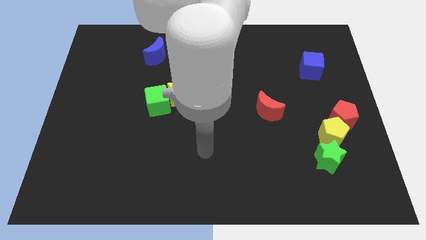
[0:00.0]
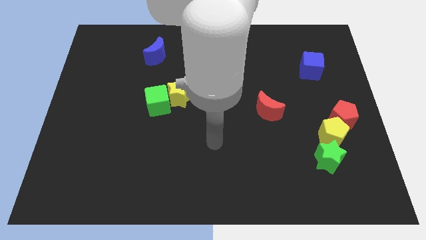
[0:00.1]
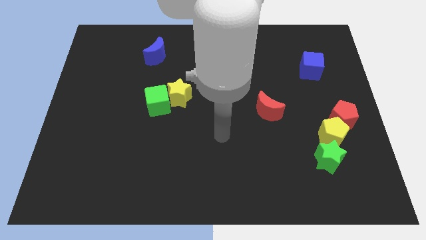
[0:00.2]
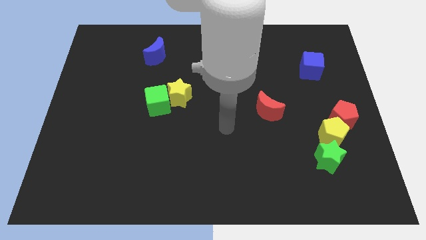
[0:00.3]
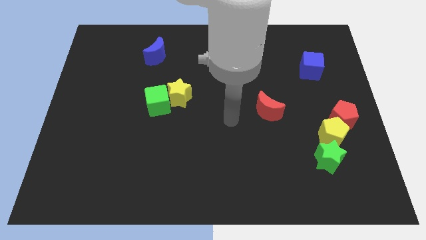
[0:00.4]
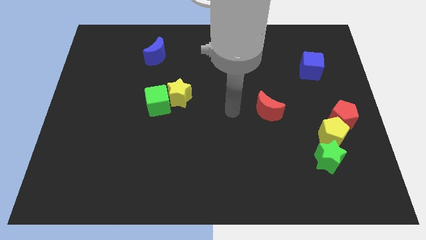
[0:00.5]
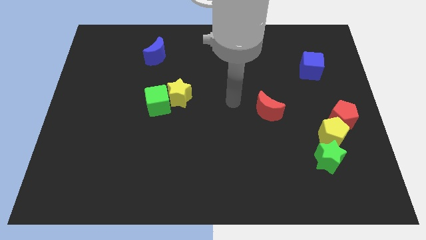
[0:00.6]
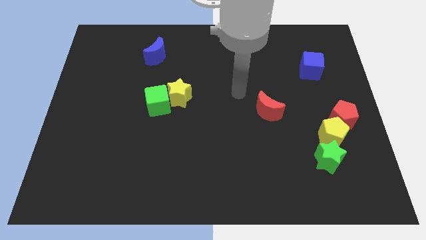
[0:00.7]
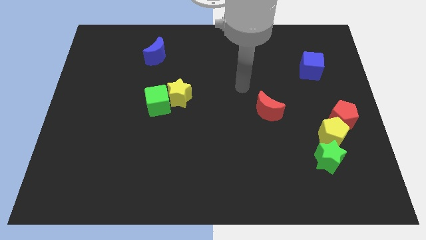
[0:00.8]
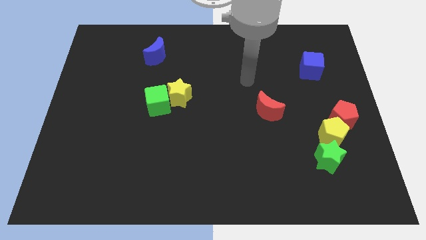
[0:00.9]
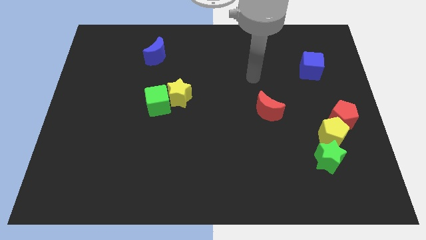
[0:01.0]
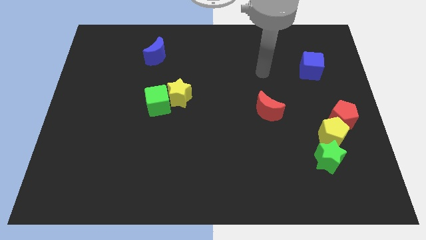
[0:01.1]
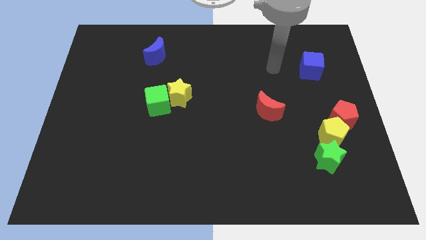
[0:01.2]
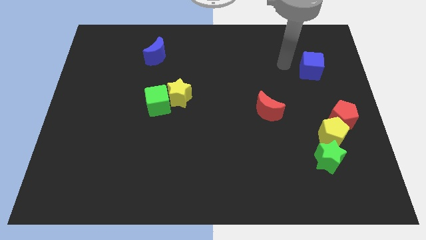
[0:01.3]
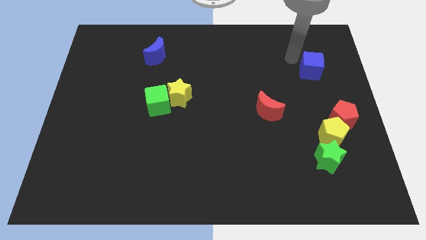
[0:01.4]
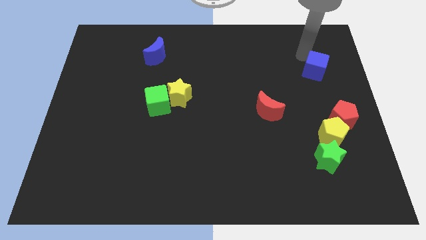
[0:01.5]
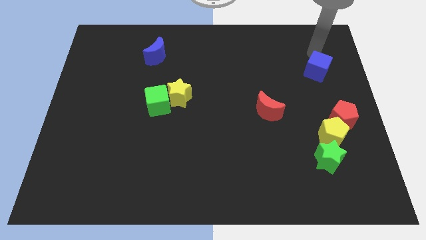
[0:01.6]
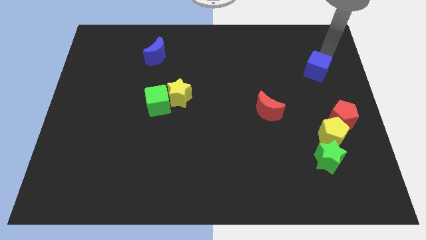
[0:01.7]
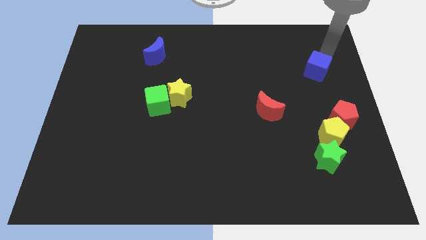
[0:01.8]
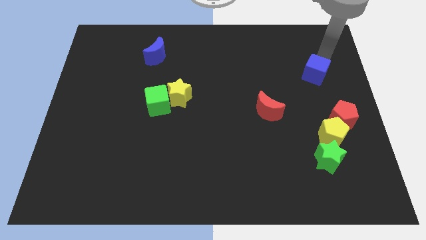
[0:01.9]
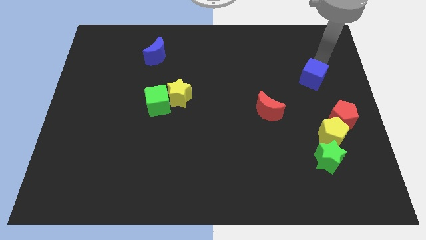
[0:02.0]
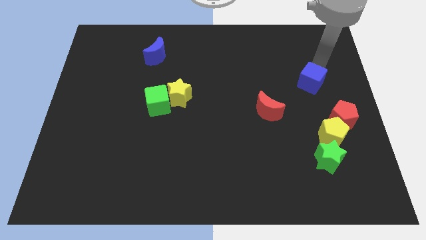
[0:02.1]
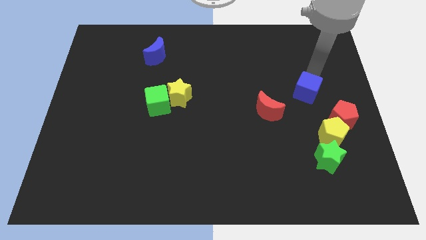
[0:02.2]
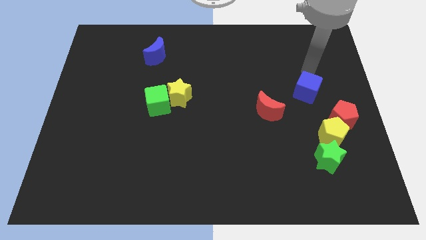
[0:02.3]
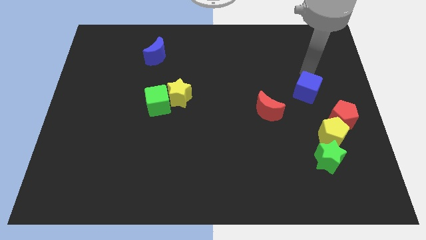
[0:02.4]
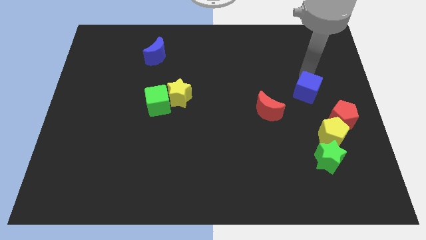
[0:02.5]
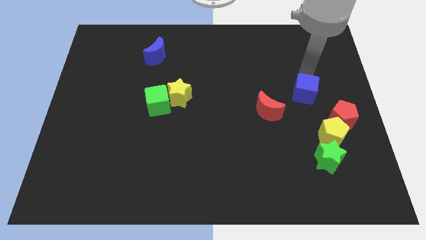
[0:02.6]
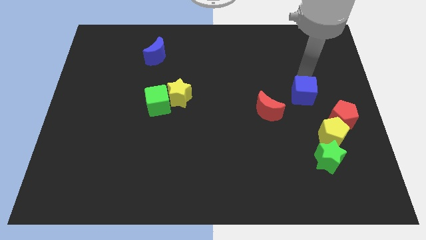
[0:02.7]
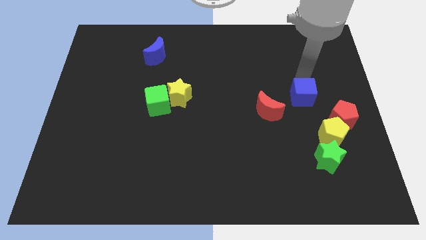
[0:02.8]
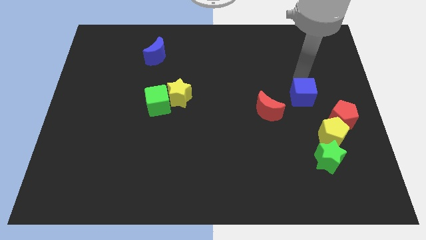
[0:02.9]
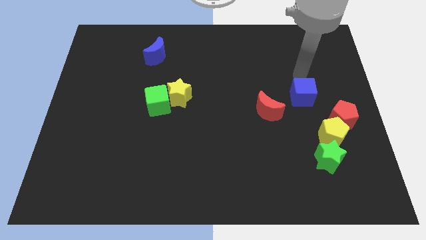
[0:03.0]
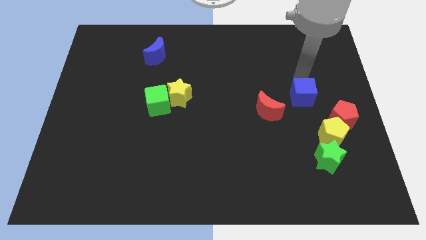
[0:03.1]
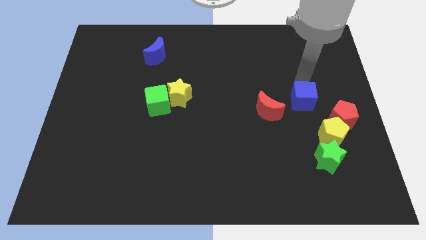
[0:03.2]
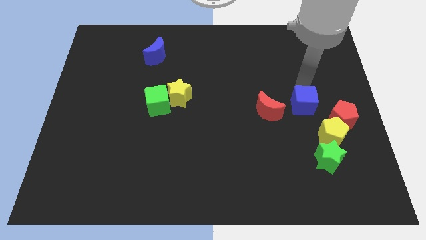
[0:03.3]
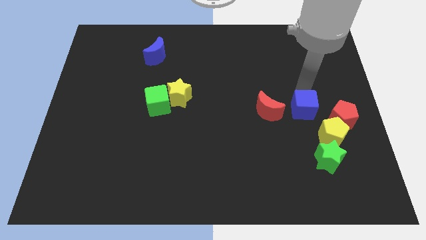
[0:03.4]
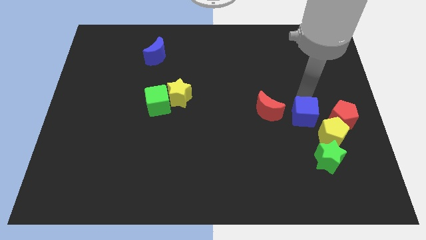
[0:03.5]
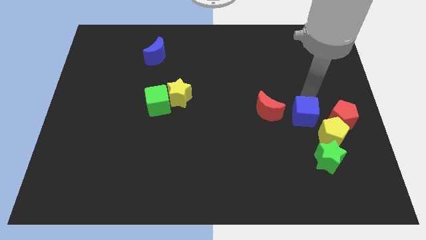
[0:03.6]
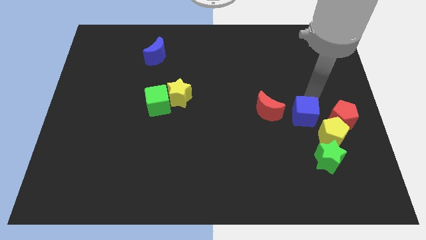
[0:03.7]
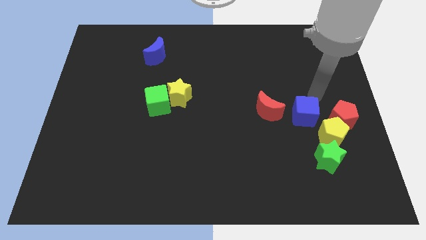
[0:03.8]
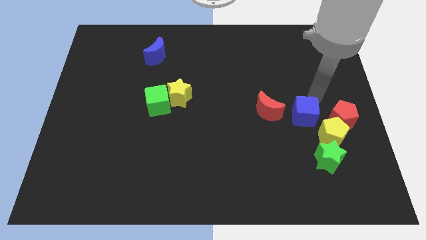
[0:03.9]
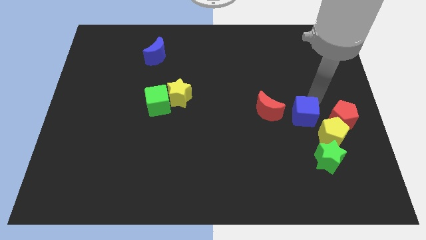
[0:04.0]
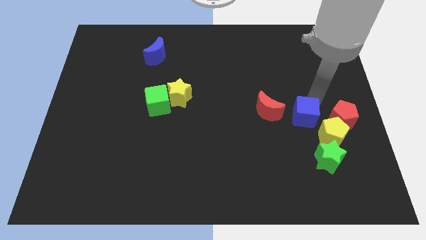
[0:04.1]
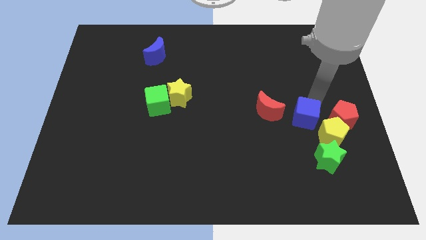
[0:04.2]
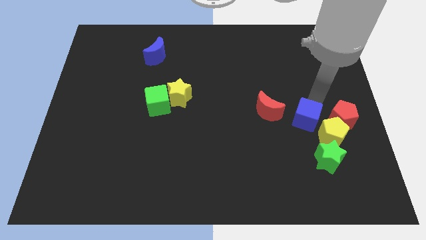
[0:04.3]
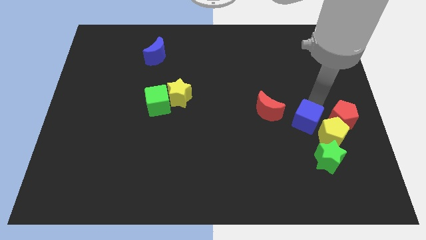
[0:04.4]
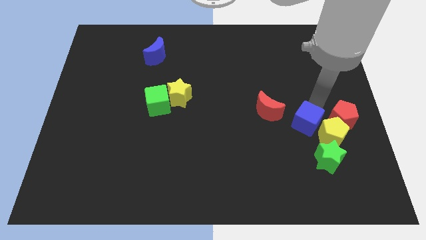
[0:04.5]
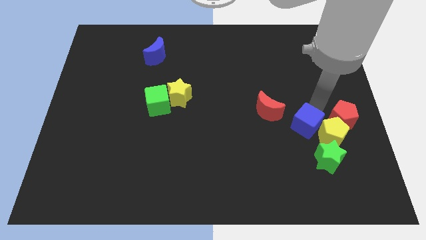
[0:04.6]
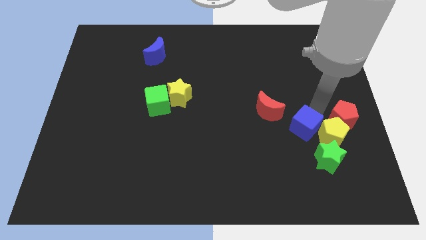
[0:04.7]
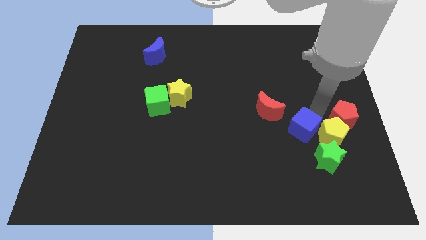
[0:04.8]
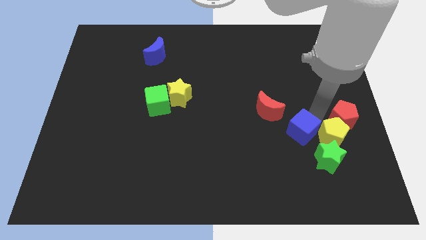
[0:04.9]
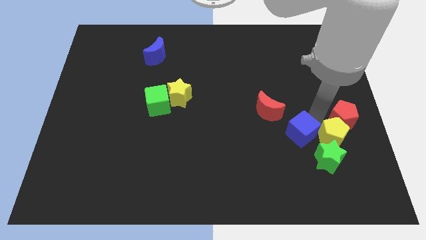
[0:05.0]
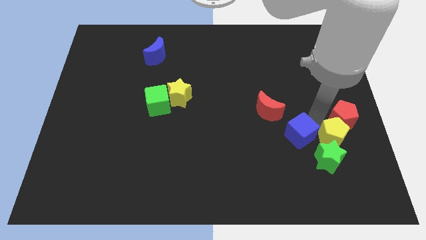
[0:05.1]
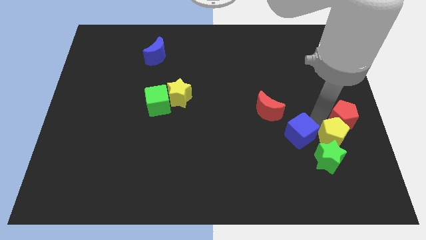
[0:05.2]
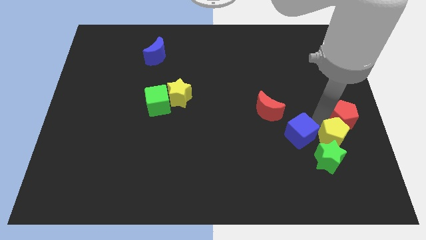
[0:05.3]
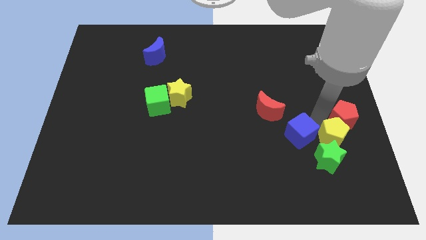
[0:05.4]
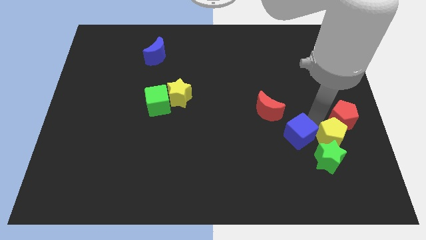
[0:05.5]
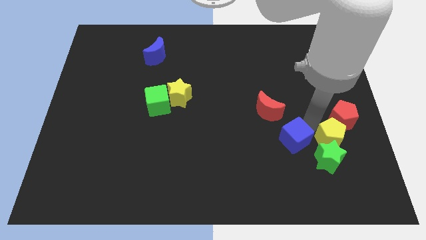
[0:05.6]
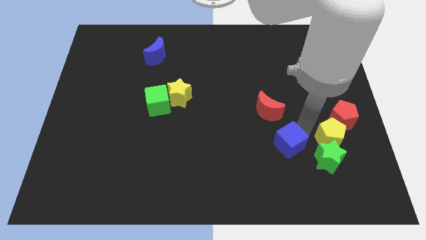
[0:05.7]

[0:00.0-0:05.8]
move the blue cube to the left side of the green star

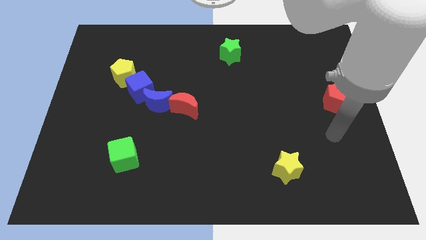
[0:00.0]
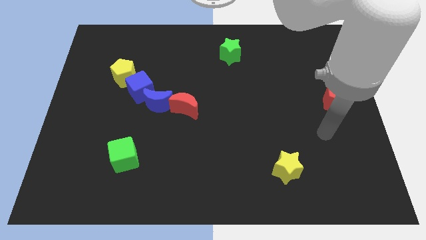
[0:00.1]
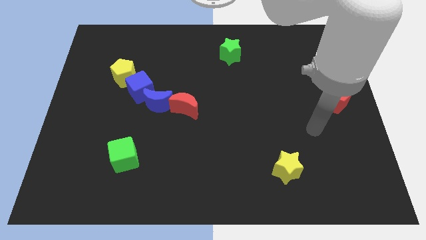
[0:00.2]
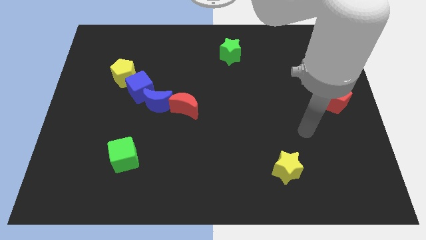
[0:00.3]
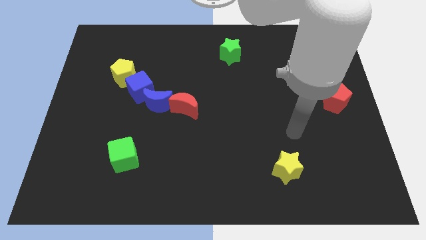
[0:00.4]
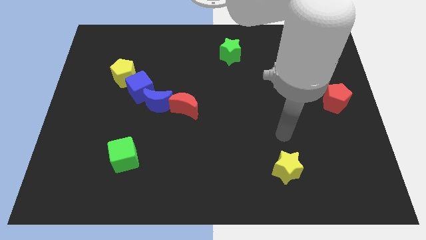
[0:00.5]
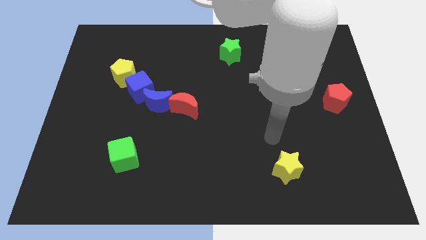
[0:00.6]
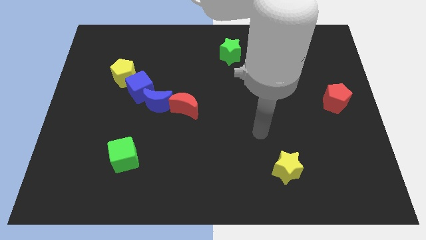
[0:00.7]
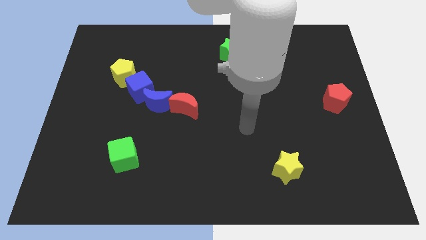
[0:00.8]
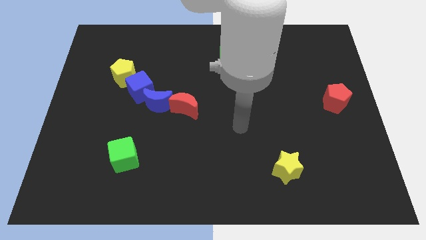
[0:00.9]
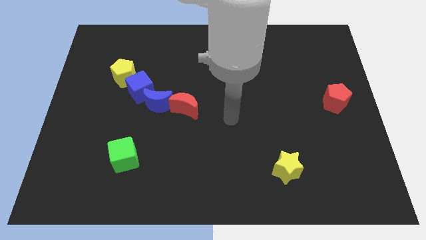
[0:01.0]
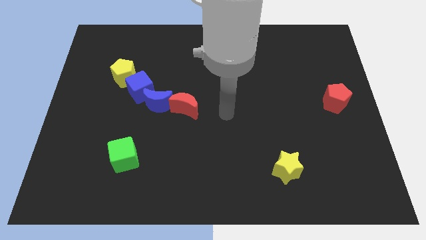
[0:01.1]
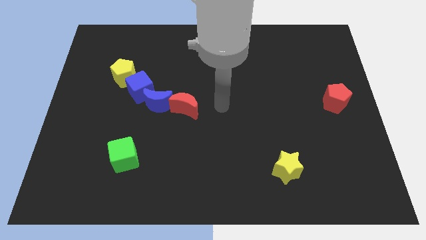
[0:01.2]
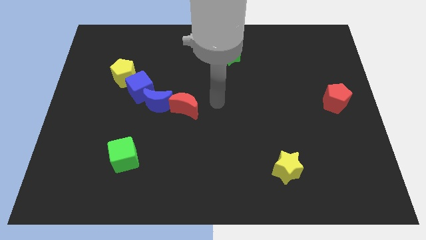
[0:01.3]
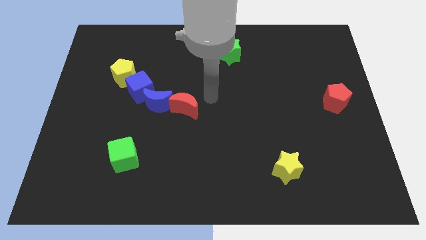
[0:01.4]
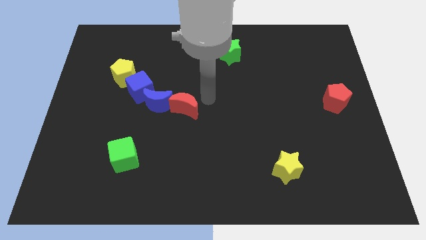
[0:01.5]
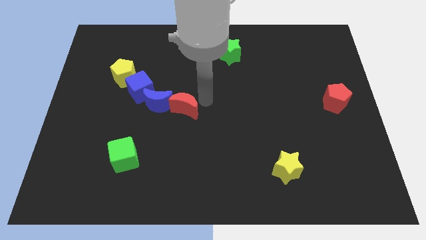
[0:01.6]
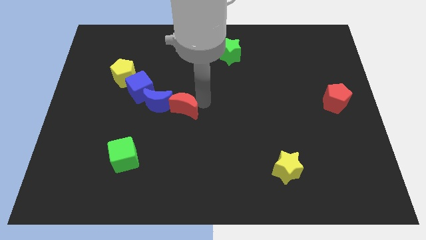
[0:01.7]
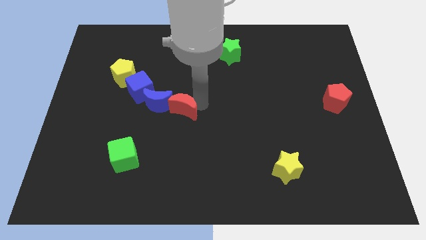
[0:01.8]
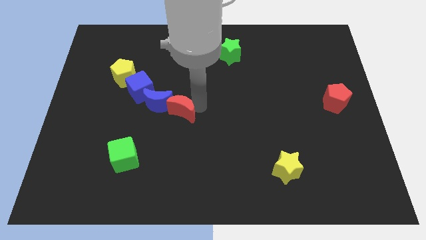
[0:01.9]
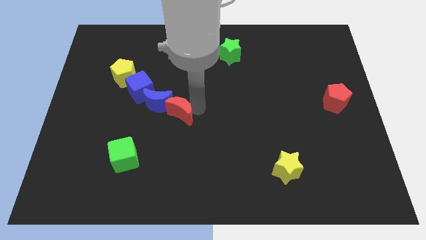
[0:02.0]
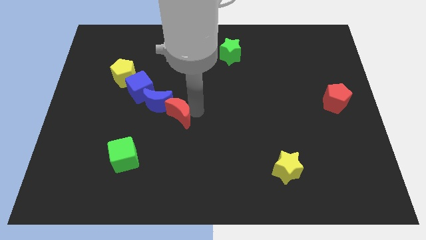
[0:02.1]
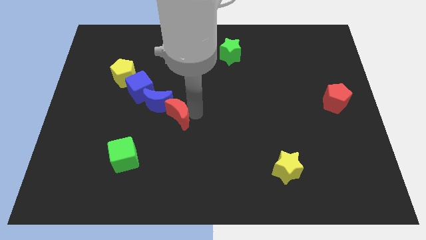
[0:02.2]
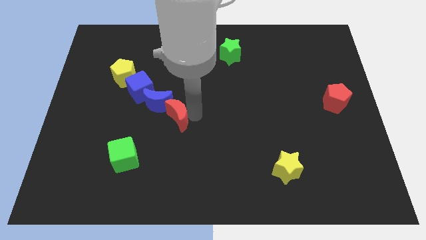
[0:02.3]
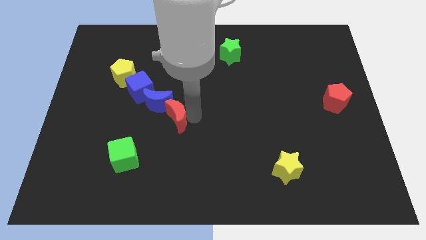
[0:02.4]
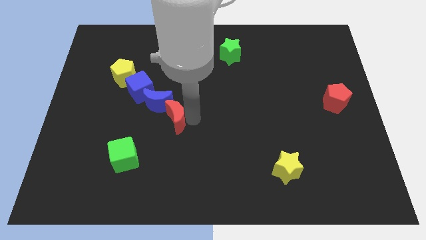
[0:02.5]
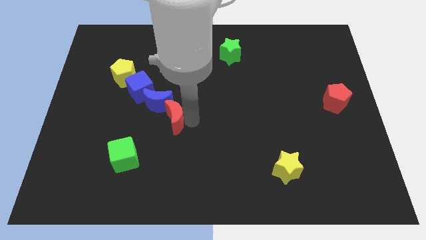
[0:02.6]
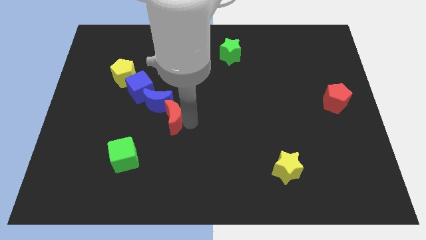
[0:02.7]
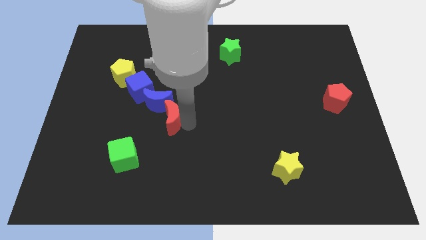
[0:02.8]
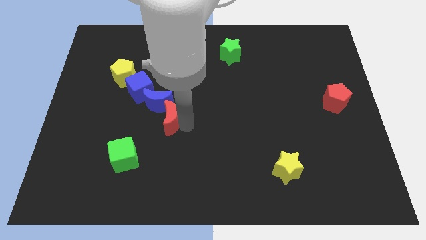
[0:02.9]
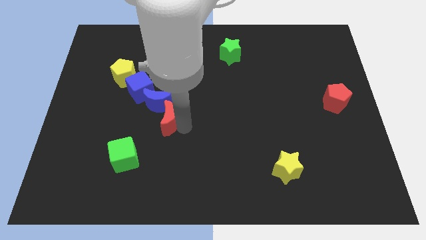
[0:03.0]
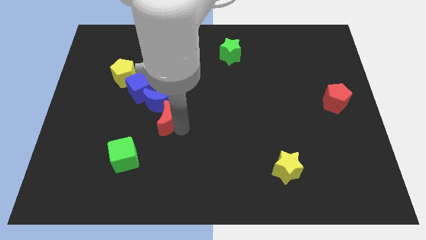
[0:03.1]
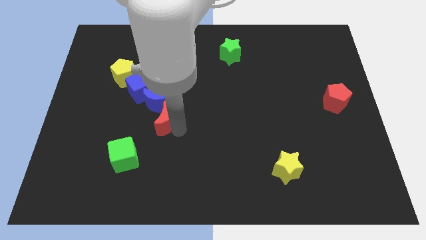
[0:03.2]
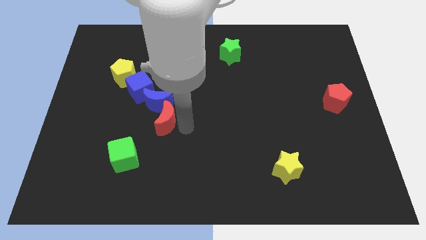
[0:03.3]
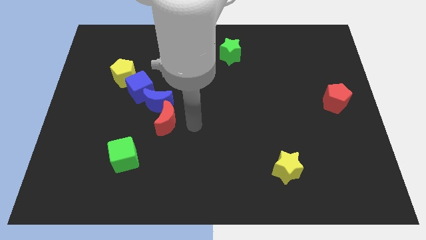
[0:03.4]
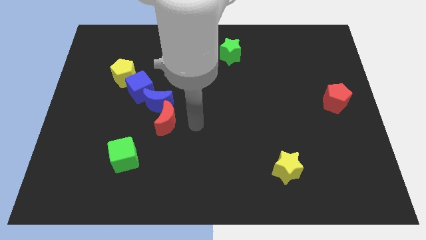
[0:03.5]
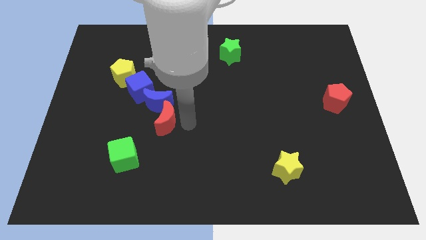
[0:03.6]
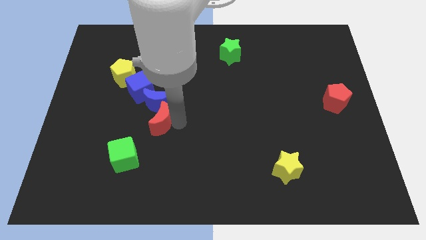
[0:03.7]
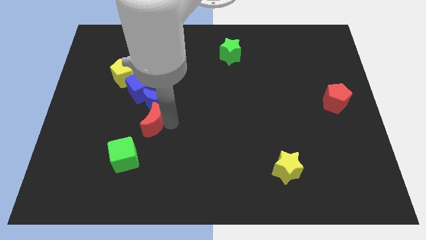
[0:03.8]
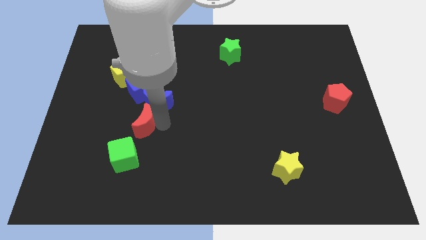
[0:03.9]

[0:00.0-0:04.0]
slide the red moon to the top side of the green cube
